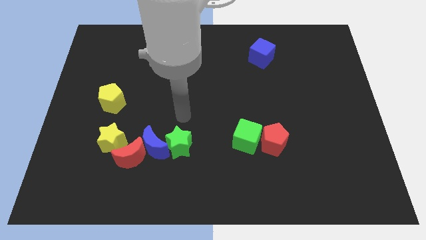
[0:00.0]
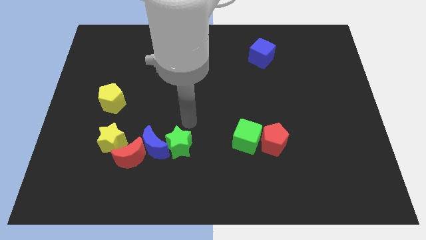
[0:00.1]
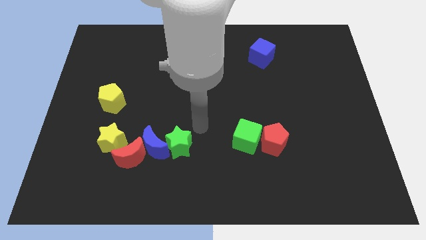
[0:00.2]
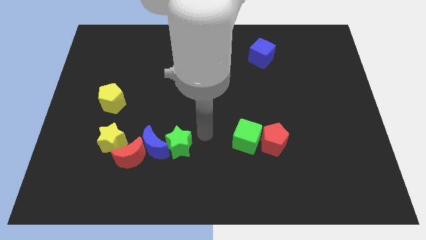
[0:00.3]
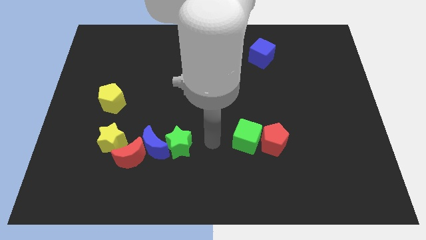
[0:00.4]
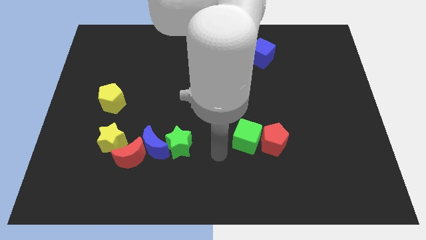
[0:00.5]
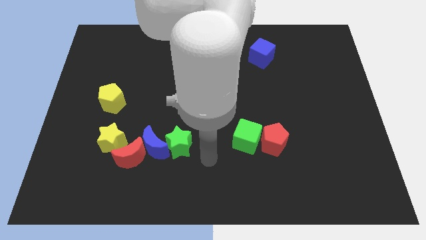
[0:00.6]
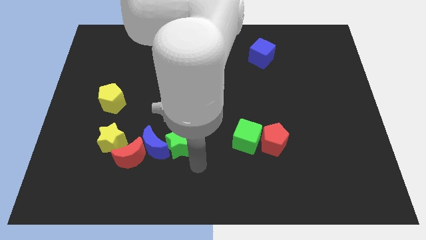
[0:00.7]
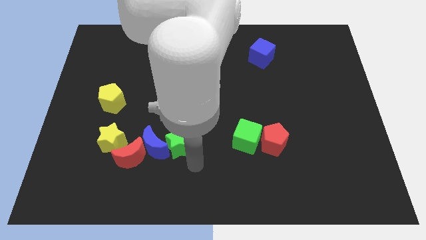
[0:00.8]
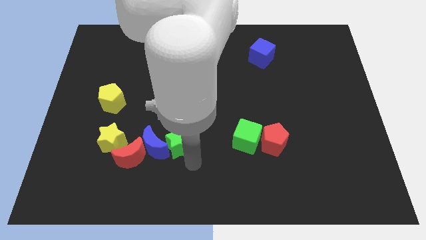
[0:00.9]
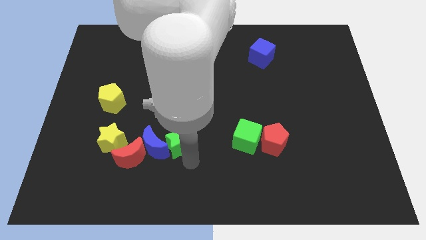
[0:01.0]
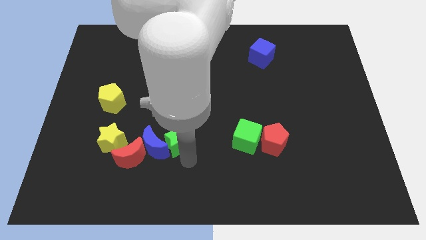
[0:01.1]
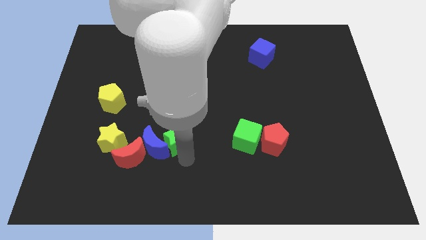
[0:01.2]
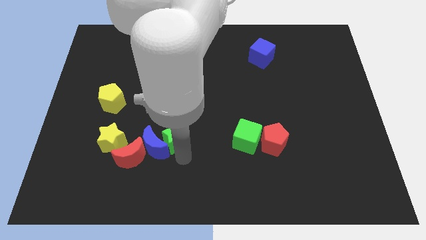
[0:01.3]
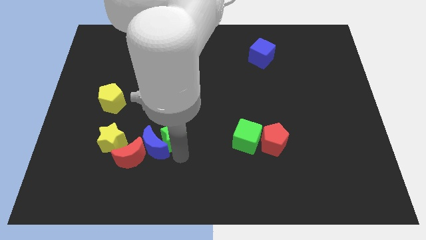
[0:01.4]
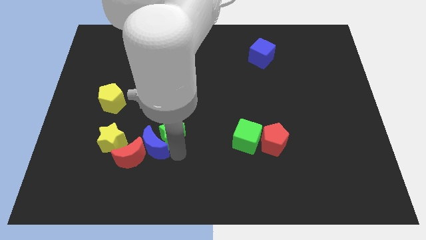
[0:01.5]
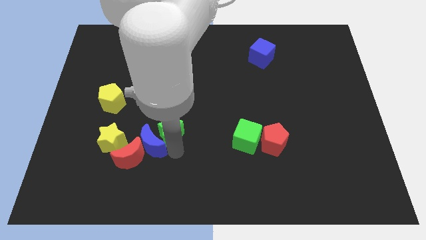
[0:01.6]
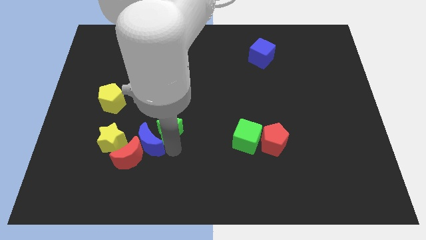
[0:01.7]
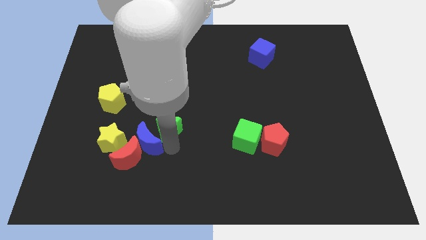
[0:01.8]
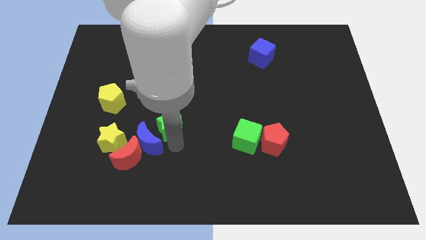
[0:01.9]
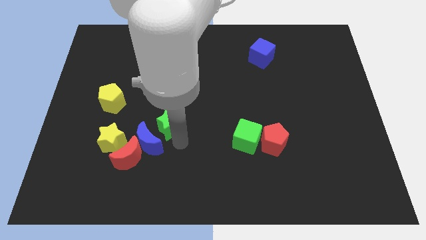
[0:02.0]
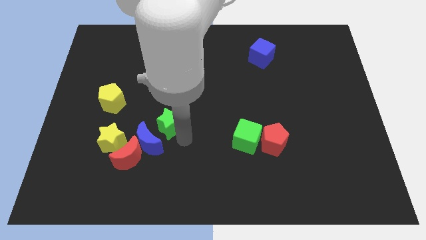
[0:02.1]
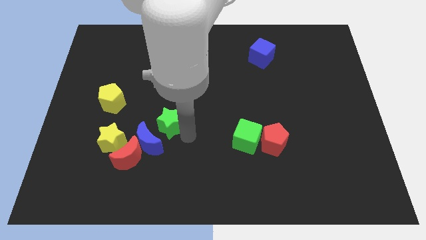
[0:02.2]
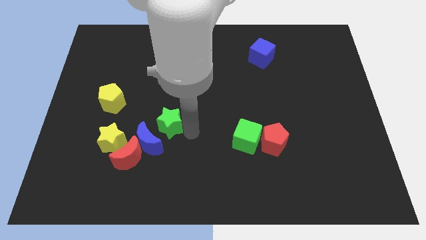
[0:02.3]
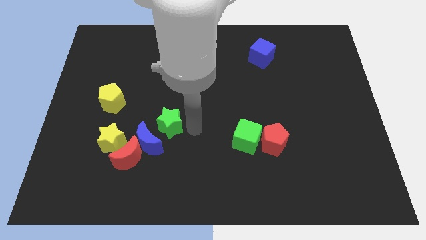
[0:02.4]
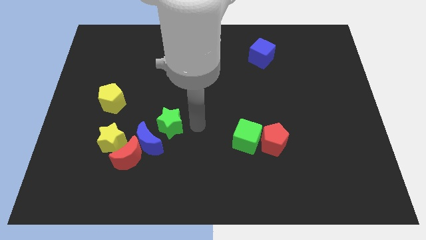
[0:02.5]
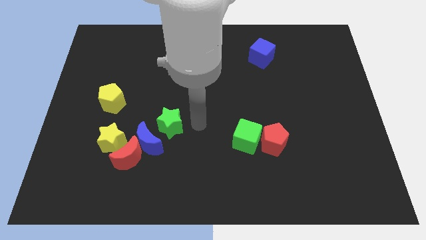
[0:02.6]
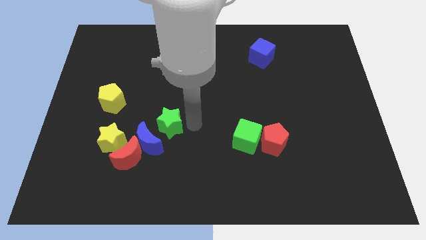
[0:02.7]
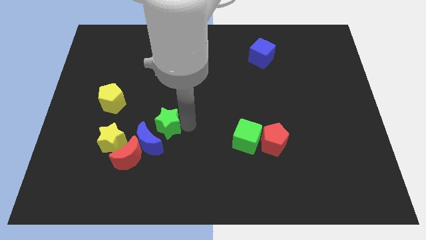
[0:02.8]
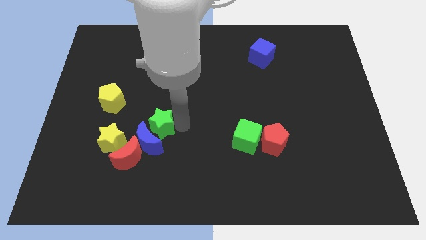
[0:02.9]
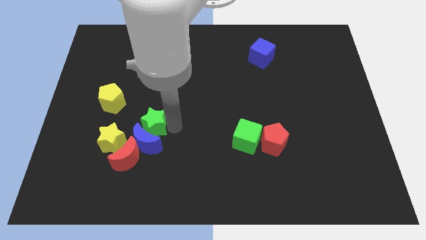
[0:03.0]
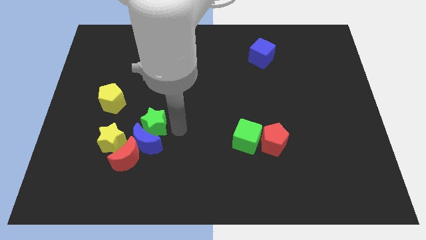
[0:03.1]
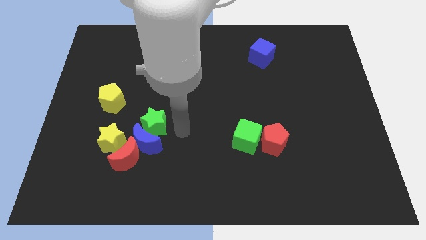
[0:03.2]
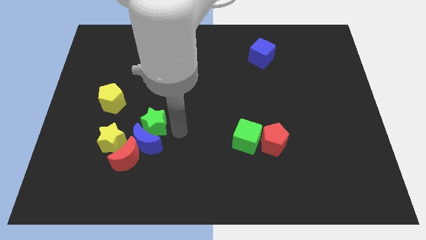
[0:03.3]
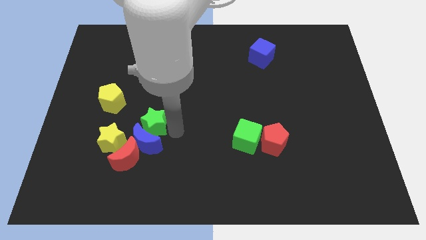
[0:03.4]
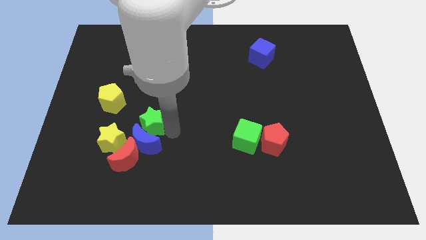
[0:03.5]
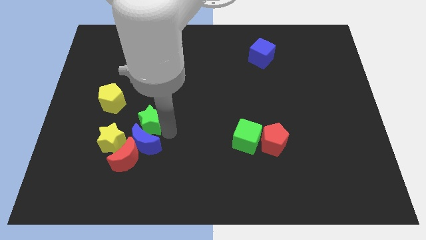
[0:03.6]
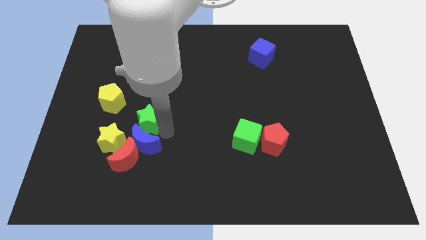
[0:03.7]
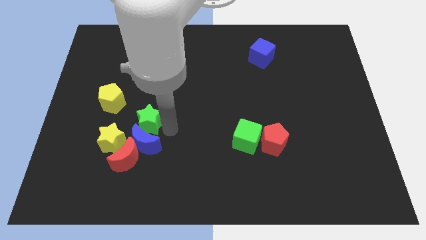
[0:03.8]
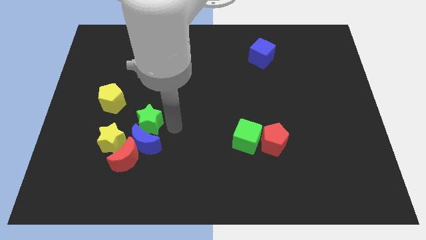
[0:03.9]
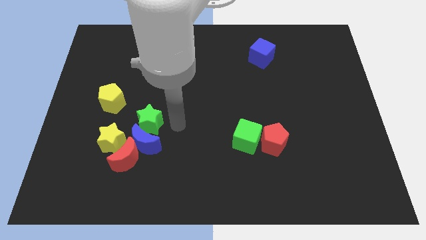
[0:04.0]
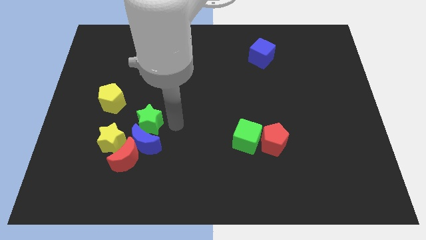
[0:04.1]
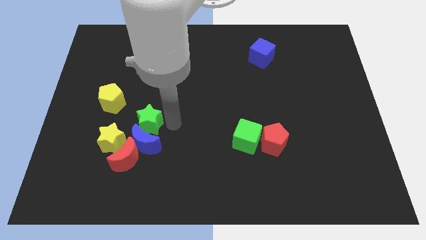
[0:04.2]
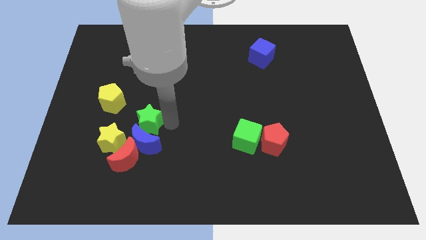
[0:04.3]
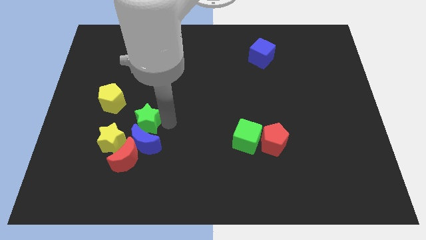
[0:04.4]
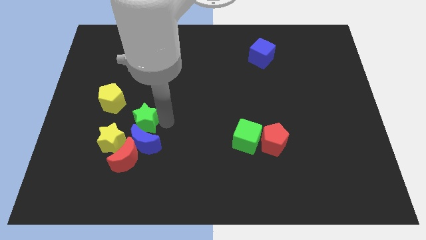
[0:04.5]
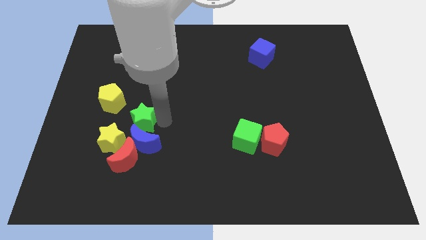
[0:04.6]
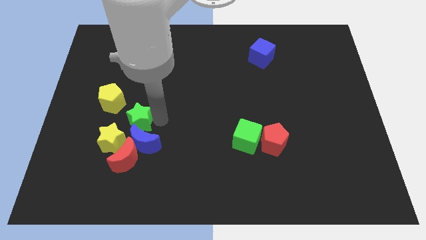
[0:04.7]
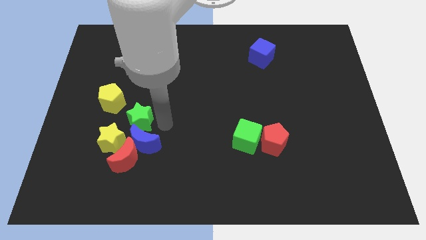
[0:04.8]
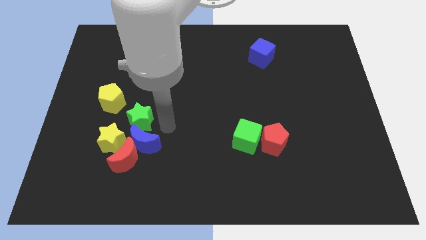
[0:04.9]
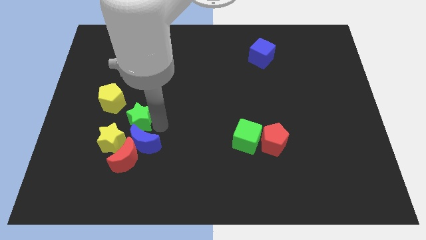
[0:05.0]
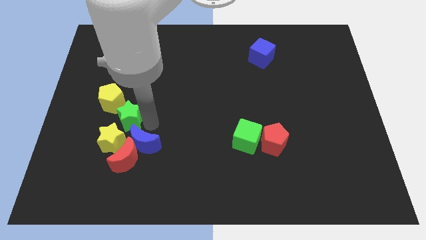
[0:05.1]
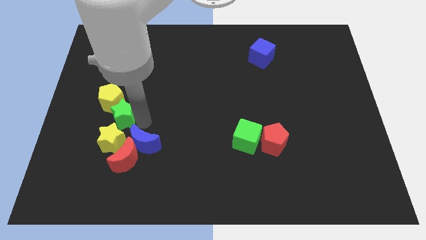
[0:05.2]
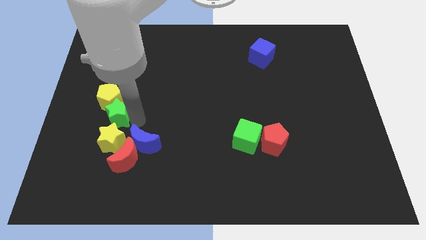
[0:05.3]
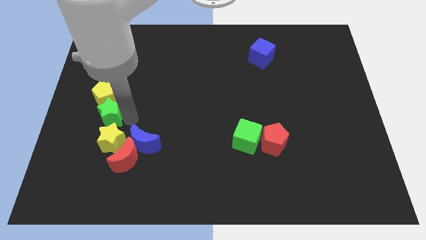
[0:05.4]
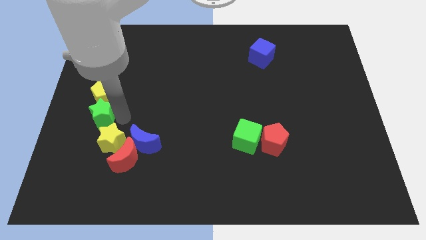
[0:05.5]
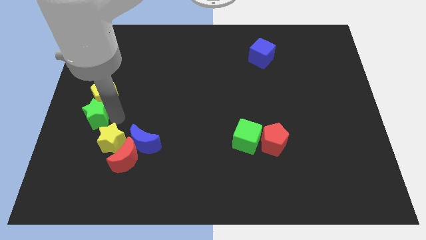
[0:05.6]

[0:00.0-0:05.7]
slide the green star to the center left

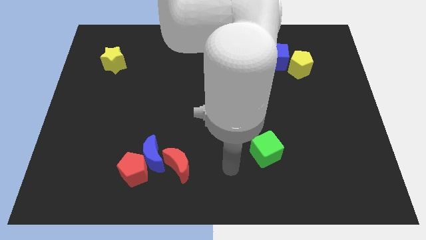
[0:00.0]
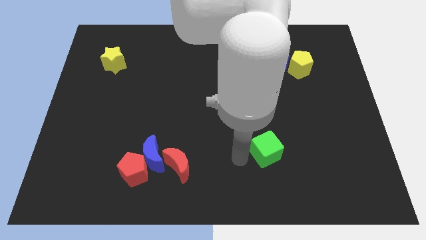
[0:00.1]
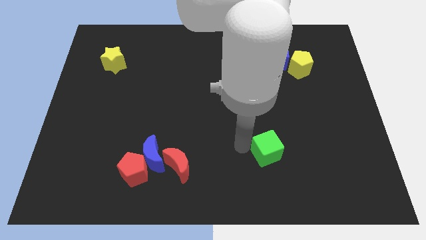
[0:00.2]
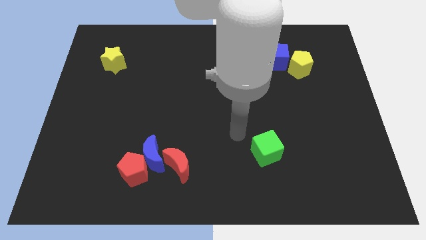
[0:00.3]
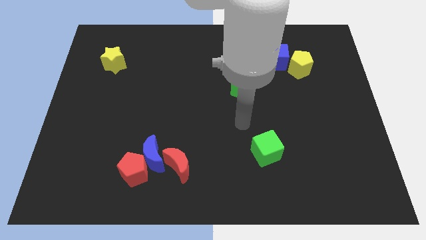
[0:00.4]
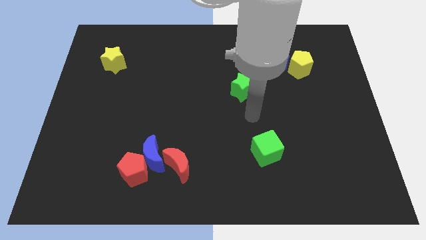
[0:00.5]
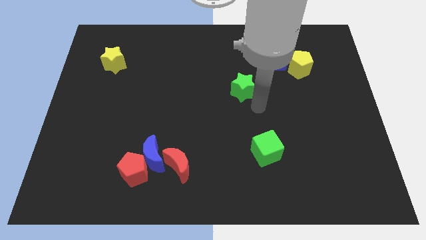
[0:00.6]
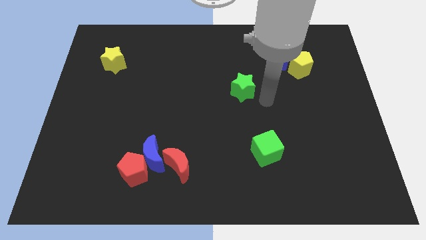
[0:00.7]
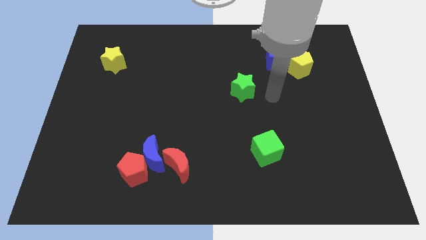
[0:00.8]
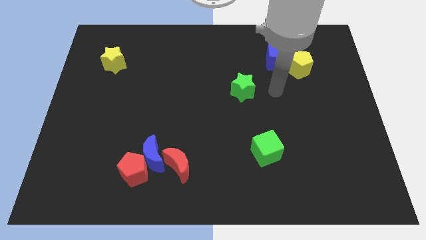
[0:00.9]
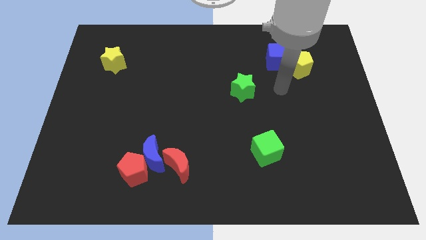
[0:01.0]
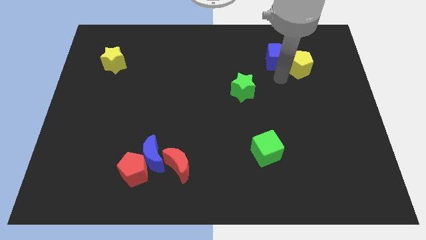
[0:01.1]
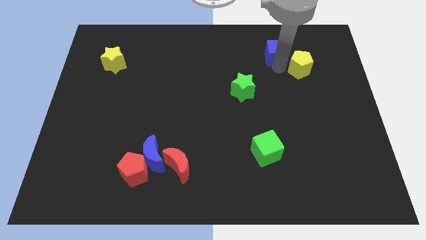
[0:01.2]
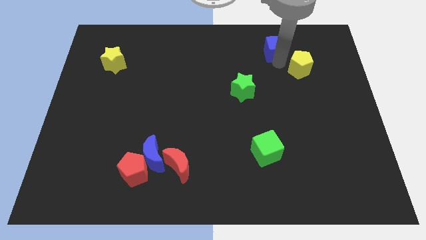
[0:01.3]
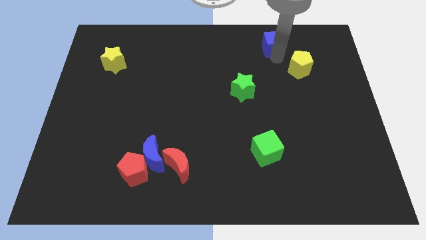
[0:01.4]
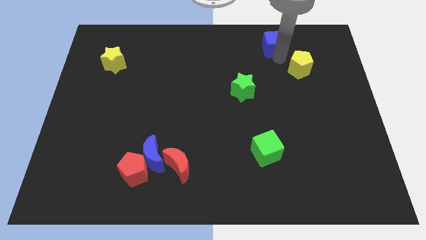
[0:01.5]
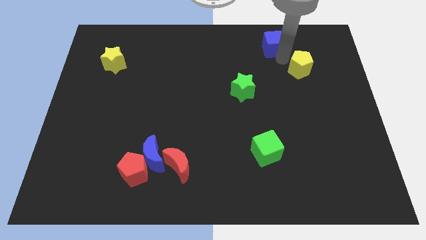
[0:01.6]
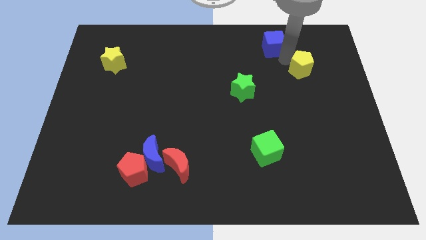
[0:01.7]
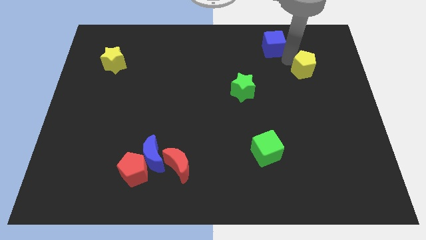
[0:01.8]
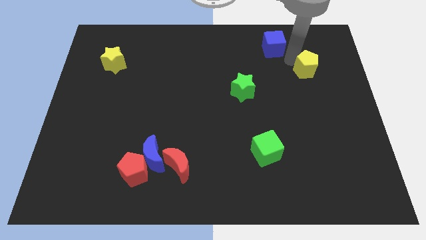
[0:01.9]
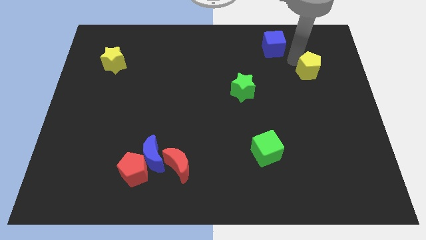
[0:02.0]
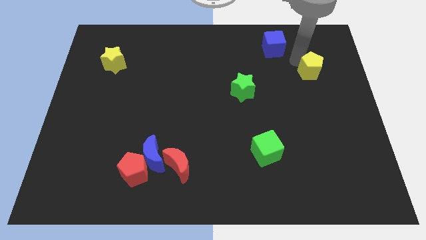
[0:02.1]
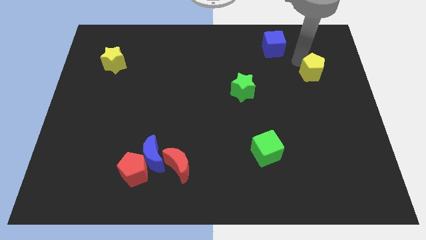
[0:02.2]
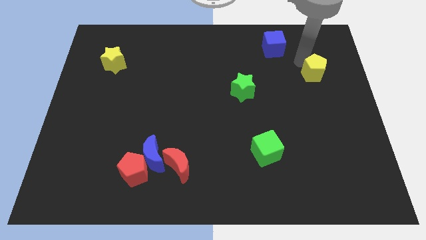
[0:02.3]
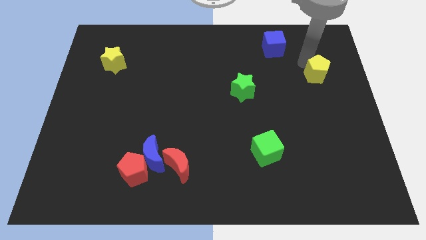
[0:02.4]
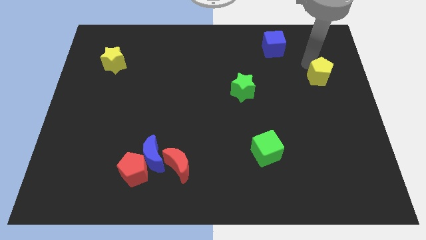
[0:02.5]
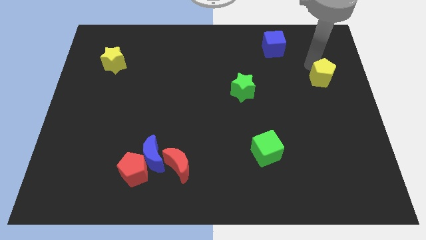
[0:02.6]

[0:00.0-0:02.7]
move the yellow pentagon to the right side of the board
